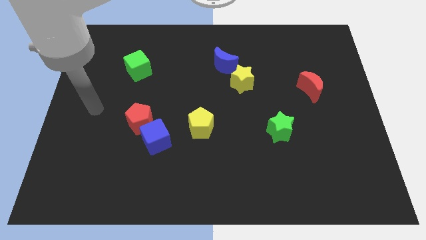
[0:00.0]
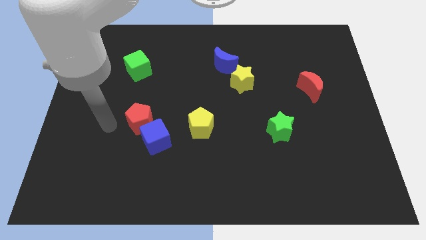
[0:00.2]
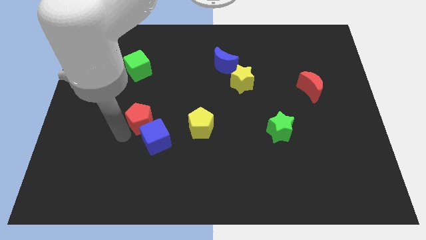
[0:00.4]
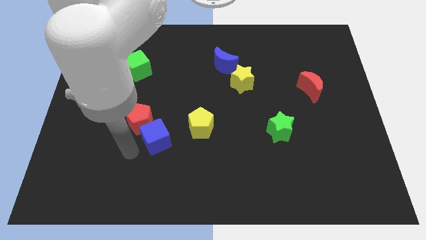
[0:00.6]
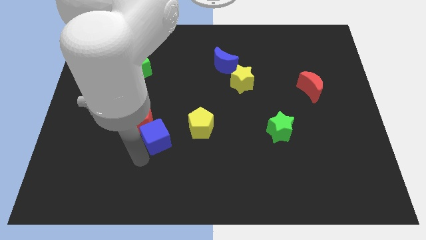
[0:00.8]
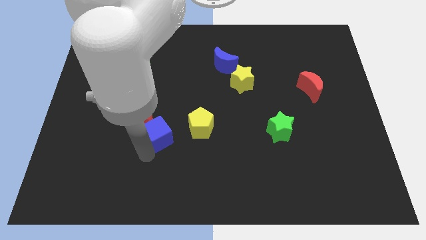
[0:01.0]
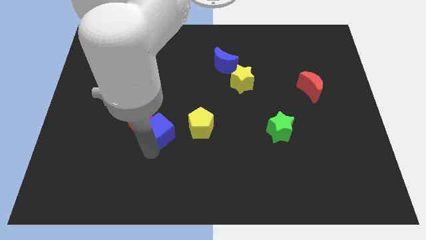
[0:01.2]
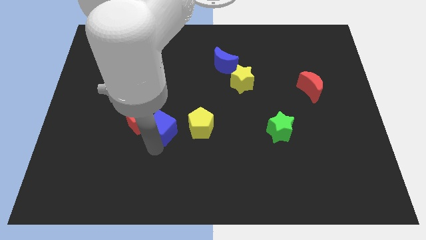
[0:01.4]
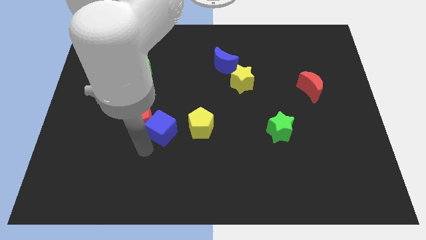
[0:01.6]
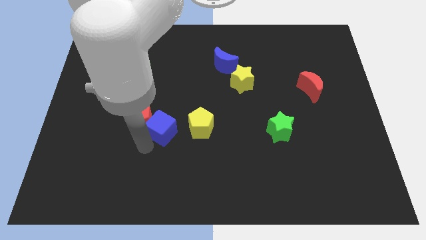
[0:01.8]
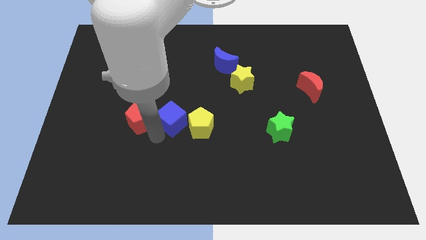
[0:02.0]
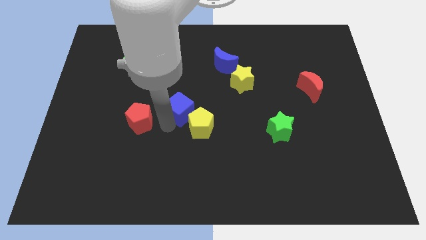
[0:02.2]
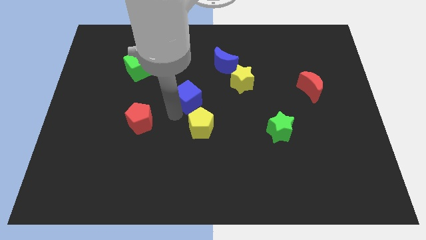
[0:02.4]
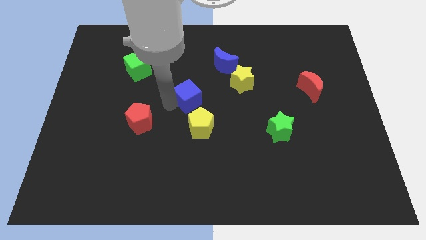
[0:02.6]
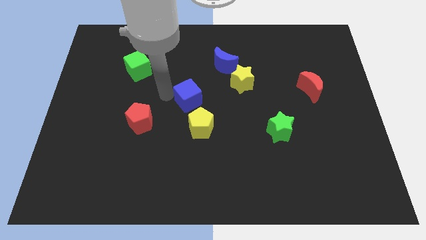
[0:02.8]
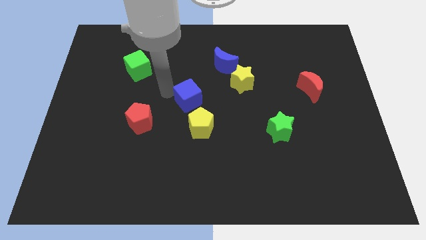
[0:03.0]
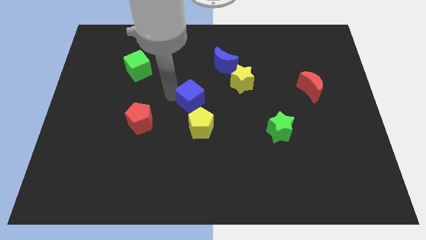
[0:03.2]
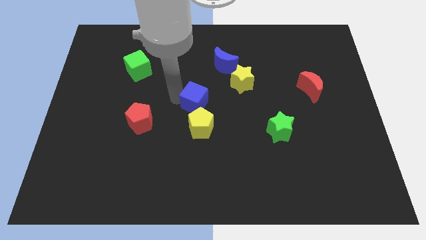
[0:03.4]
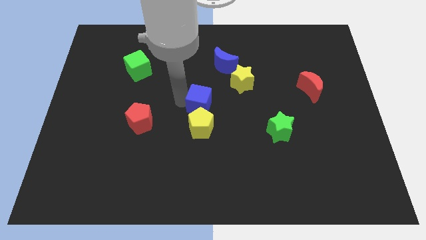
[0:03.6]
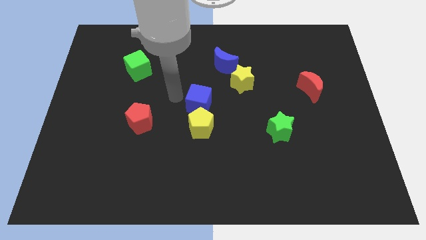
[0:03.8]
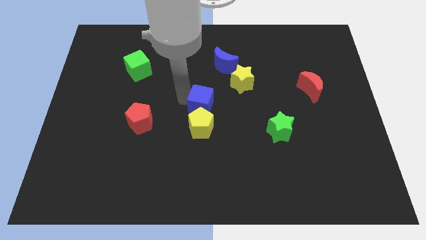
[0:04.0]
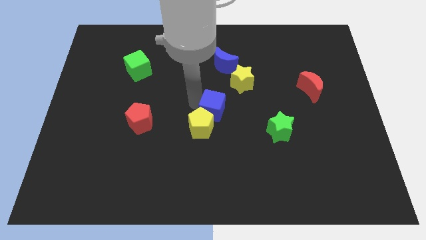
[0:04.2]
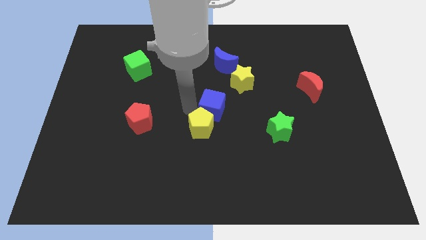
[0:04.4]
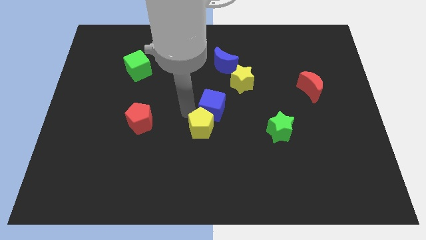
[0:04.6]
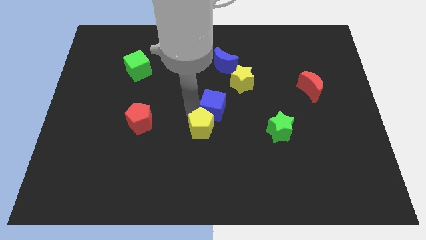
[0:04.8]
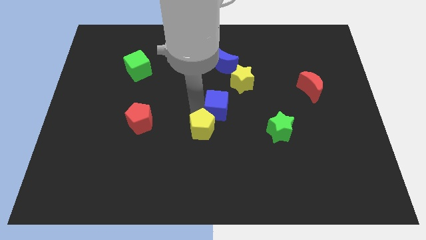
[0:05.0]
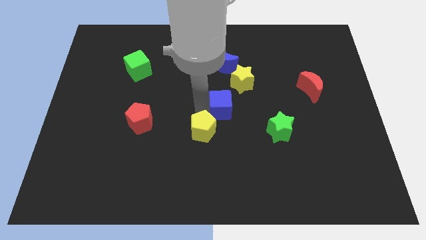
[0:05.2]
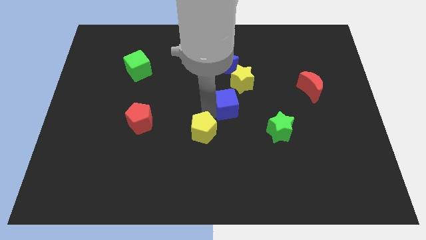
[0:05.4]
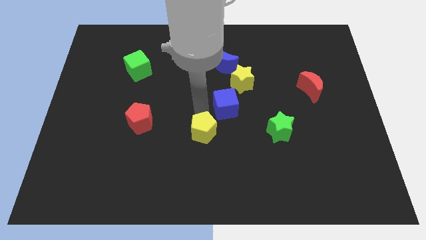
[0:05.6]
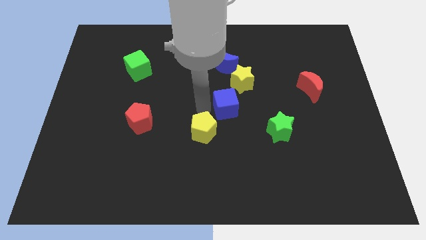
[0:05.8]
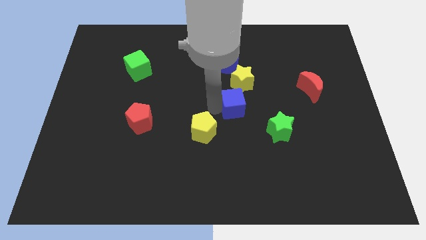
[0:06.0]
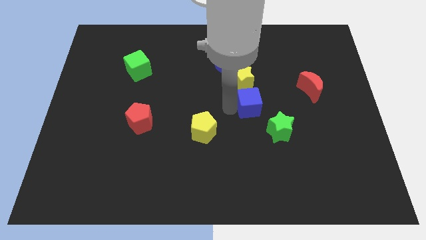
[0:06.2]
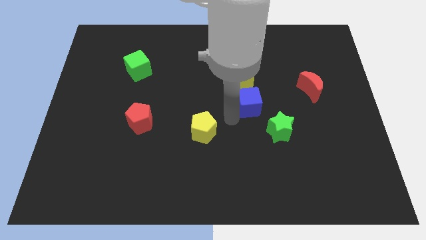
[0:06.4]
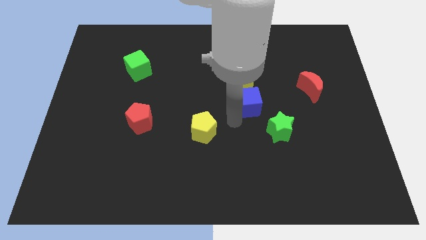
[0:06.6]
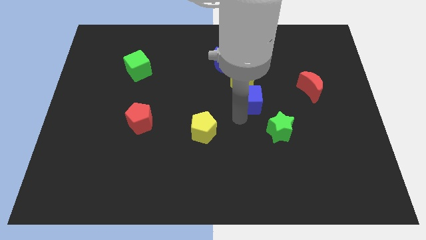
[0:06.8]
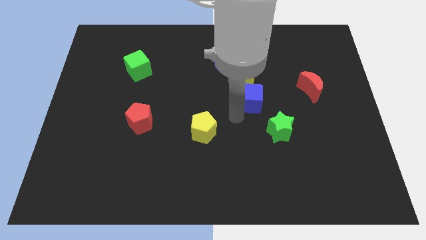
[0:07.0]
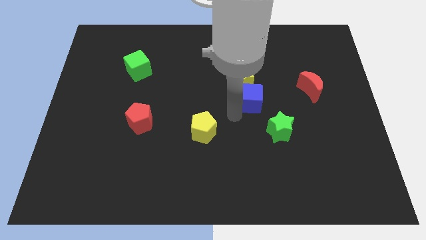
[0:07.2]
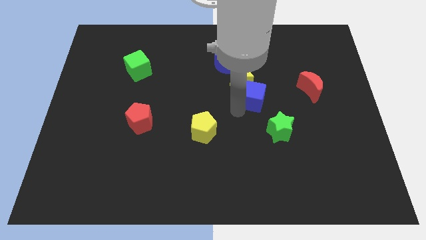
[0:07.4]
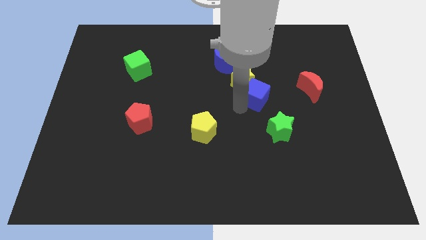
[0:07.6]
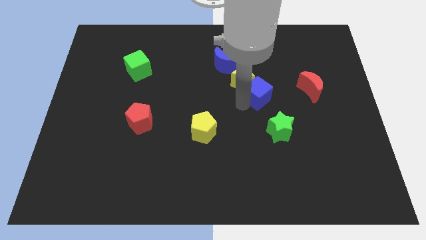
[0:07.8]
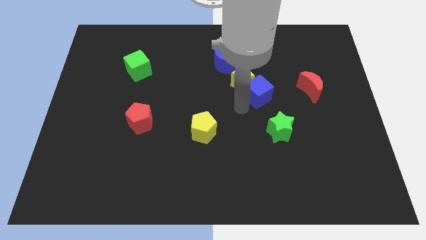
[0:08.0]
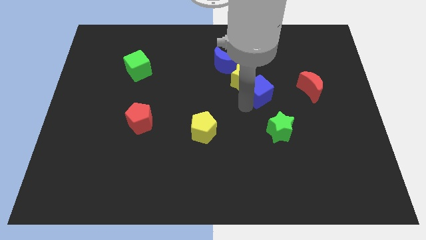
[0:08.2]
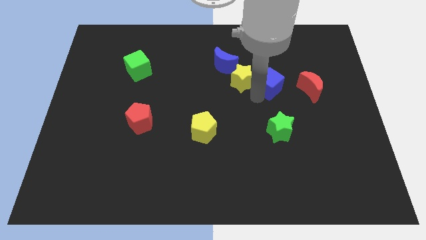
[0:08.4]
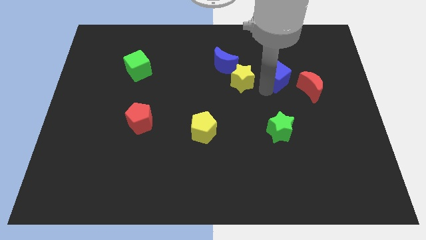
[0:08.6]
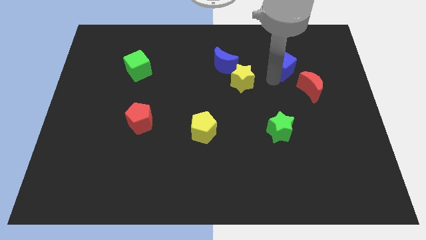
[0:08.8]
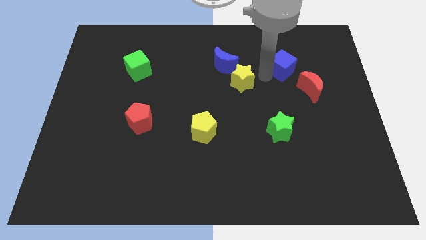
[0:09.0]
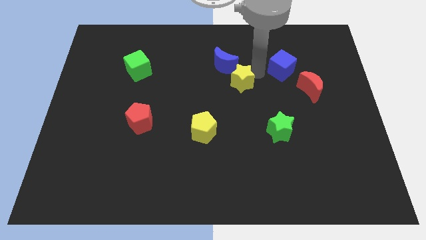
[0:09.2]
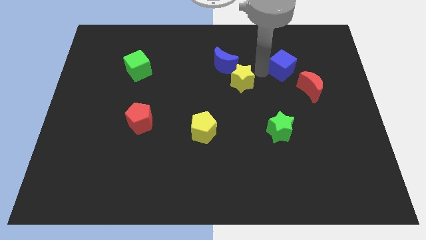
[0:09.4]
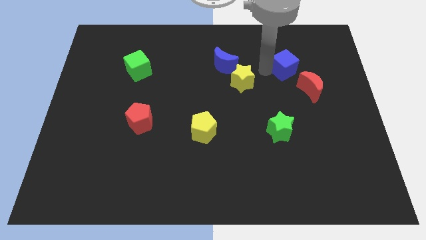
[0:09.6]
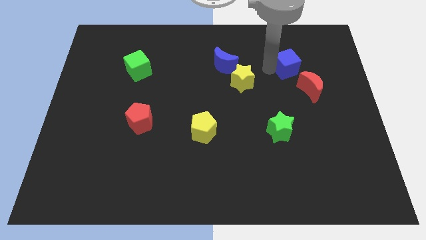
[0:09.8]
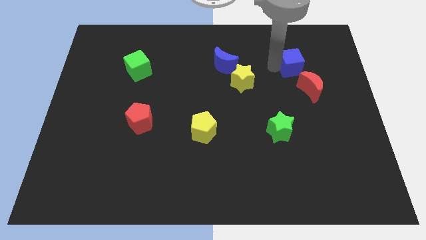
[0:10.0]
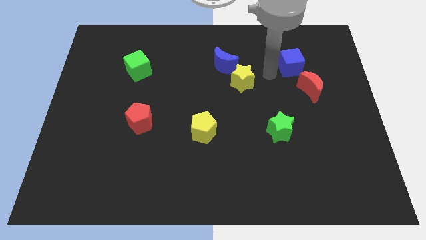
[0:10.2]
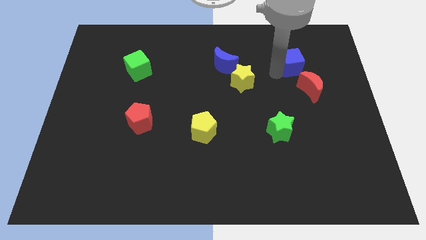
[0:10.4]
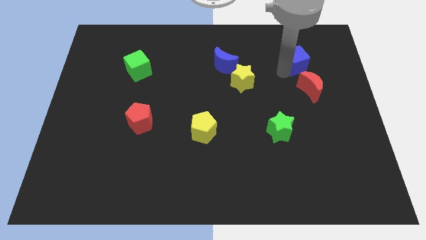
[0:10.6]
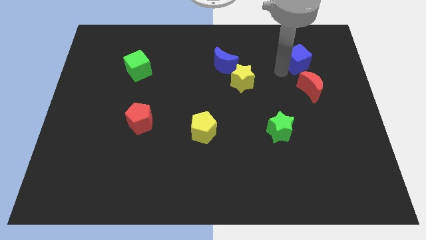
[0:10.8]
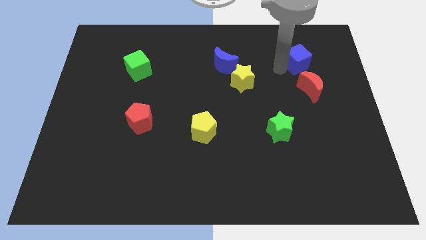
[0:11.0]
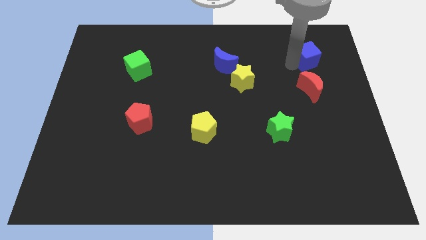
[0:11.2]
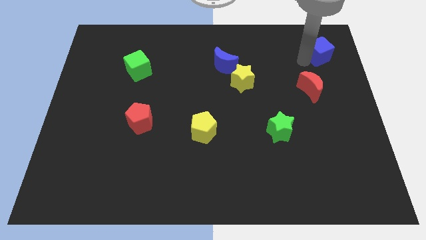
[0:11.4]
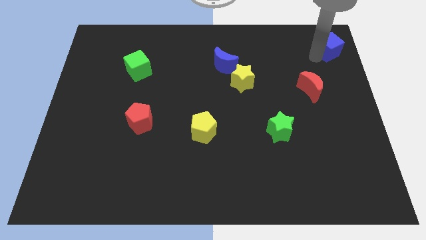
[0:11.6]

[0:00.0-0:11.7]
move the blue cube to the top right of the board
